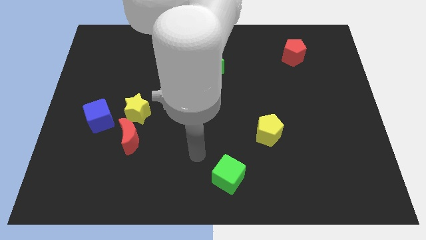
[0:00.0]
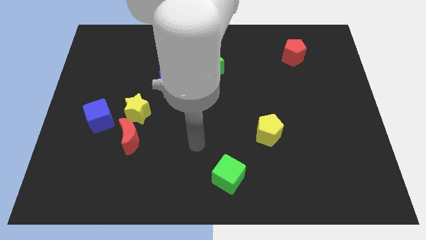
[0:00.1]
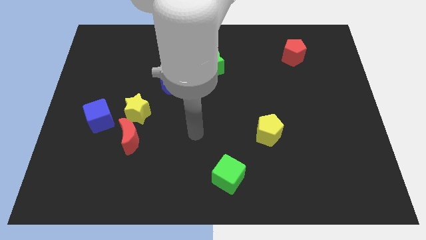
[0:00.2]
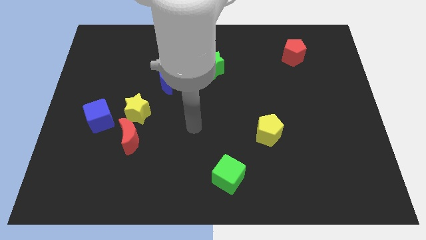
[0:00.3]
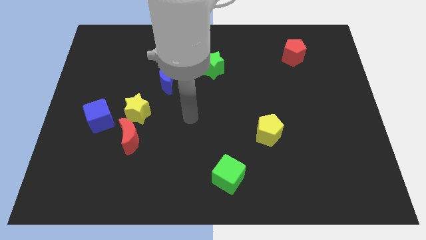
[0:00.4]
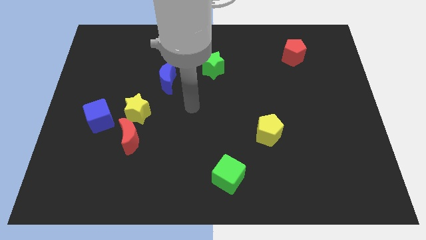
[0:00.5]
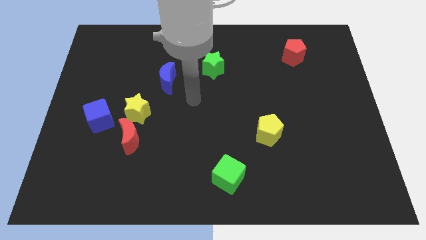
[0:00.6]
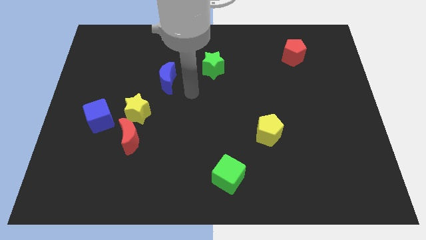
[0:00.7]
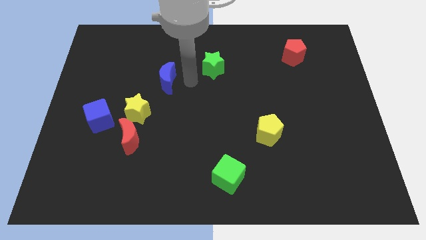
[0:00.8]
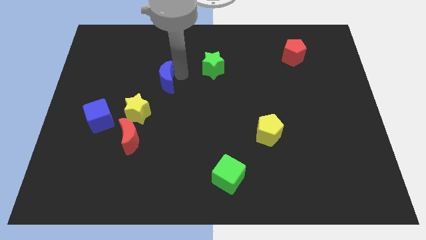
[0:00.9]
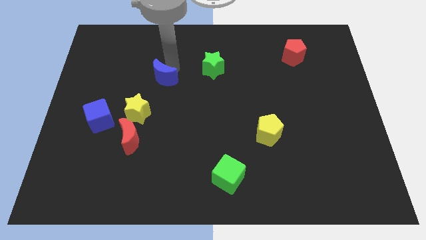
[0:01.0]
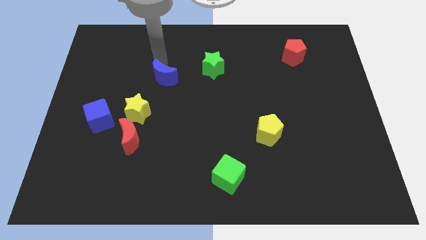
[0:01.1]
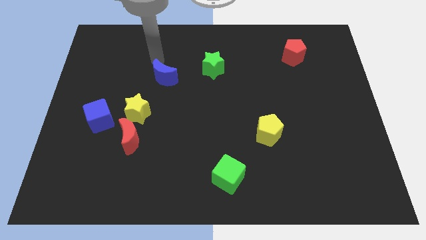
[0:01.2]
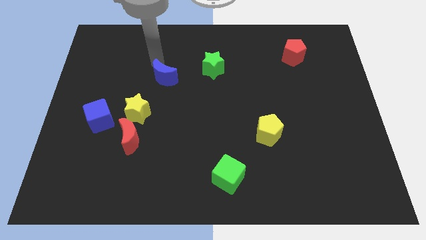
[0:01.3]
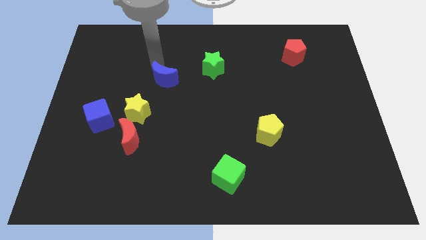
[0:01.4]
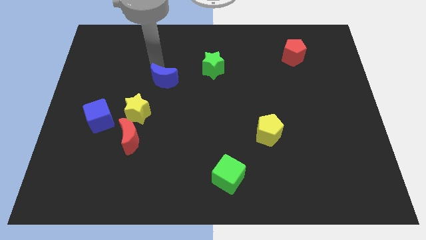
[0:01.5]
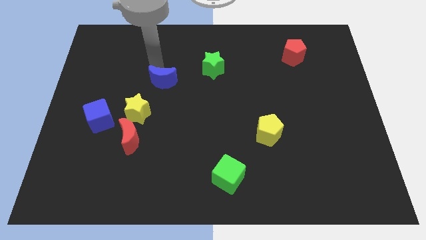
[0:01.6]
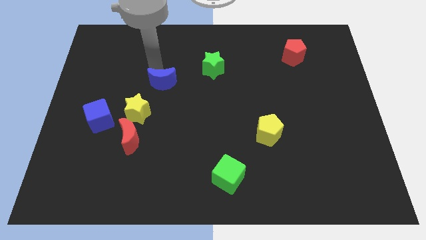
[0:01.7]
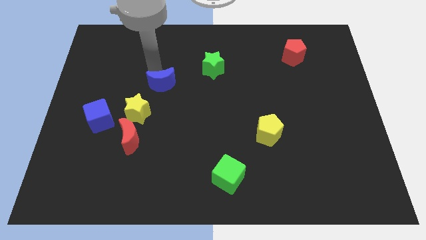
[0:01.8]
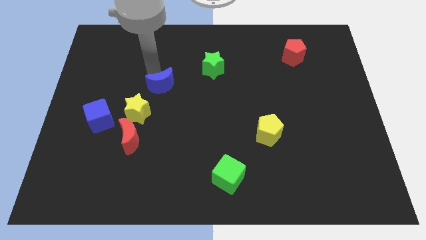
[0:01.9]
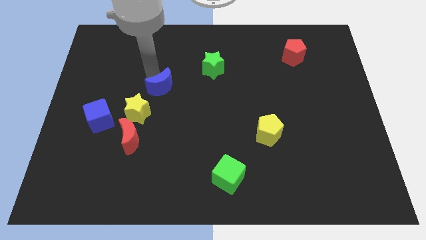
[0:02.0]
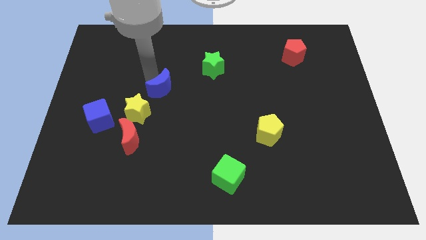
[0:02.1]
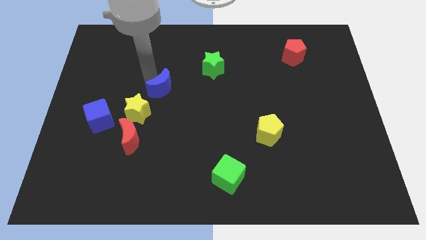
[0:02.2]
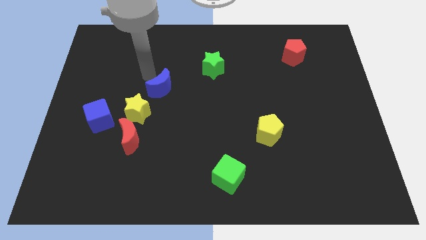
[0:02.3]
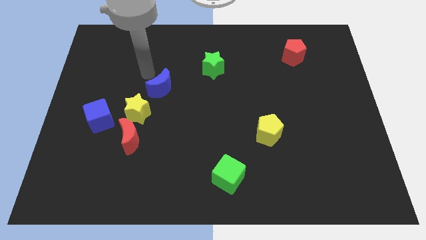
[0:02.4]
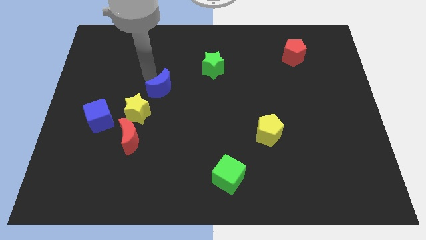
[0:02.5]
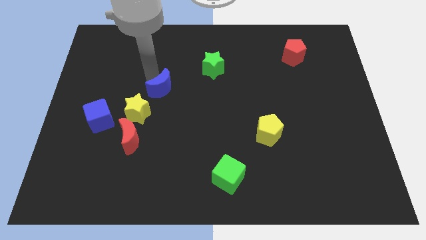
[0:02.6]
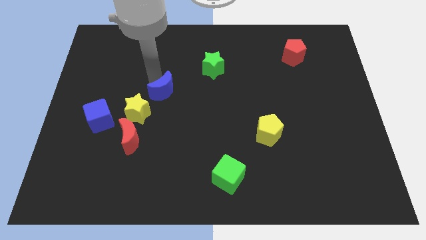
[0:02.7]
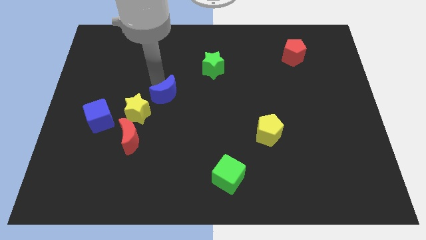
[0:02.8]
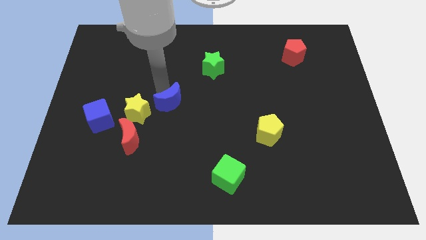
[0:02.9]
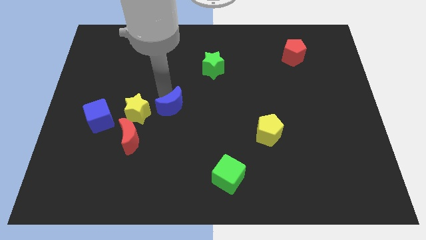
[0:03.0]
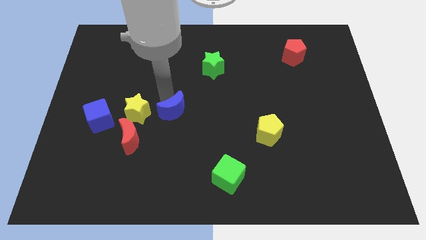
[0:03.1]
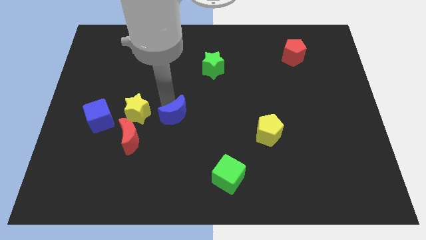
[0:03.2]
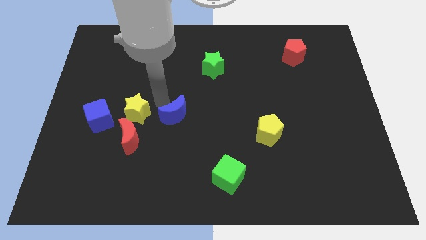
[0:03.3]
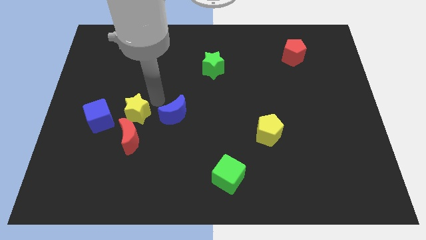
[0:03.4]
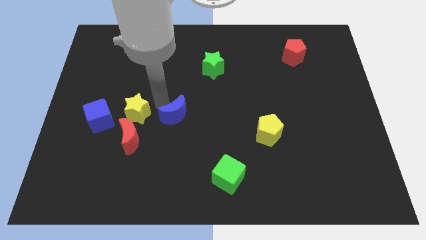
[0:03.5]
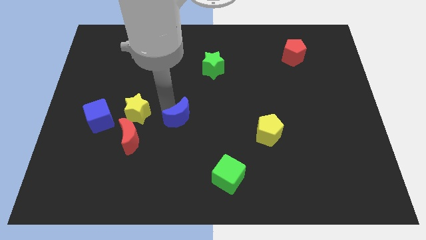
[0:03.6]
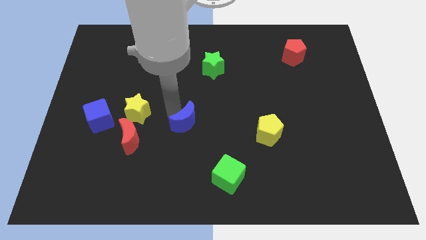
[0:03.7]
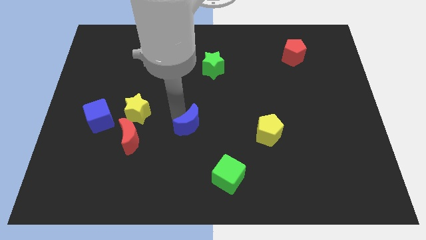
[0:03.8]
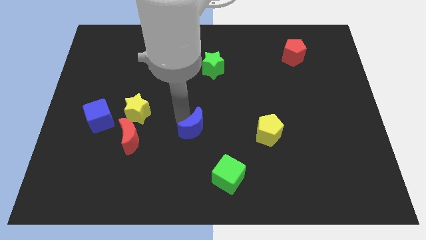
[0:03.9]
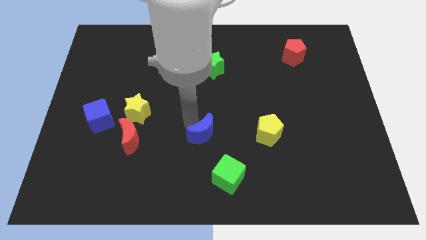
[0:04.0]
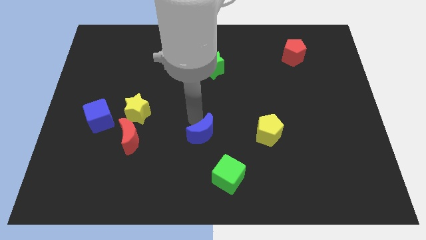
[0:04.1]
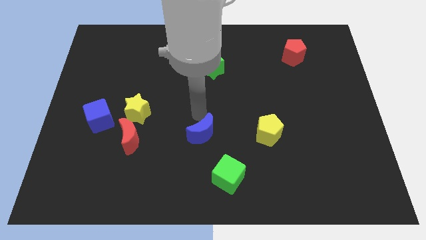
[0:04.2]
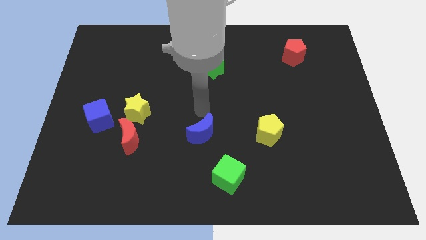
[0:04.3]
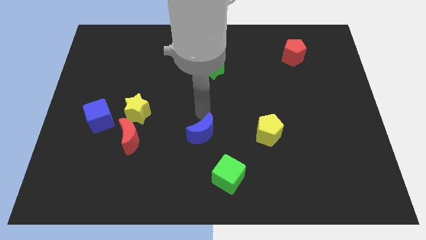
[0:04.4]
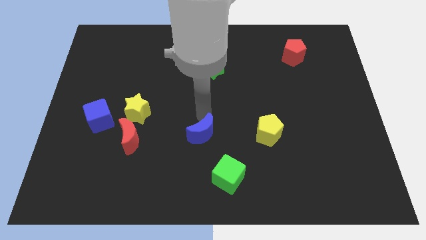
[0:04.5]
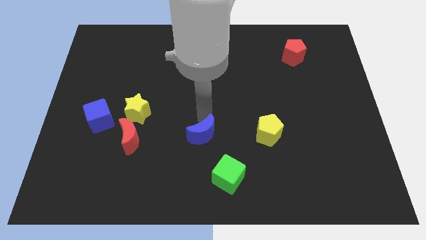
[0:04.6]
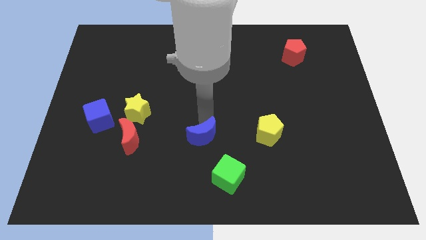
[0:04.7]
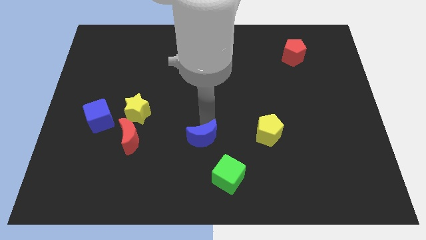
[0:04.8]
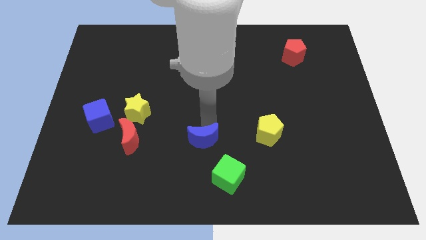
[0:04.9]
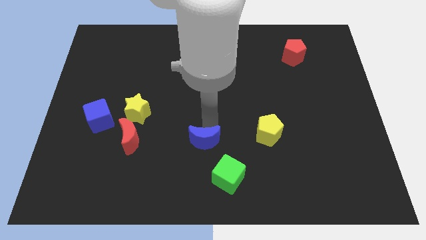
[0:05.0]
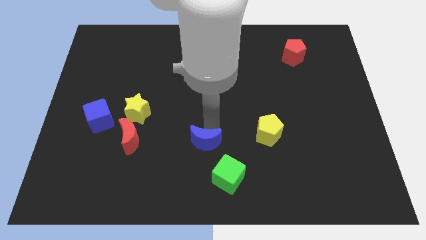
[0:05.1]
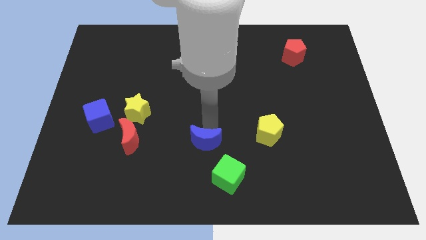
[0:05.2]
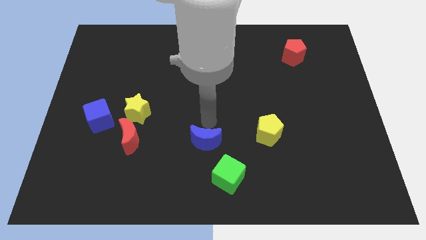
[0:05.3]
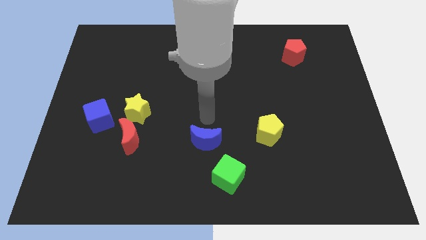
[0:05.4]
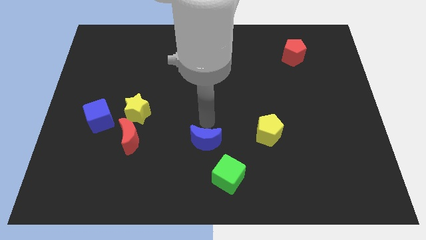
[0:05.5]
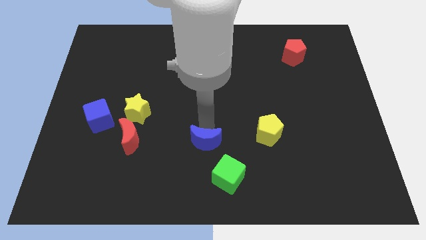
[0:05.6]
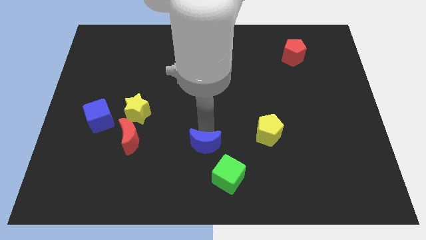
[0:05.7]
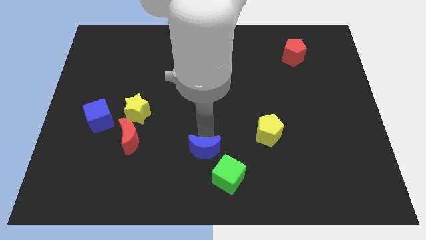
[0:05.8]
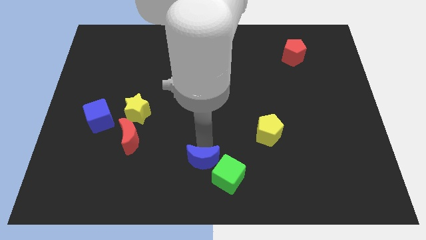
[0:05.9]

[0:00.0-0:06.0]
move the blue moon to the bottom
